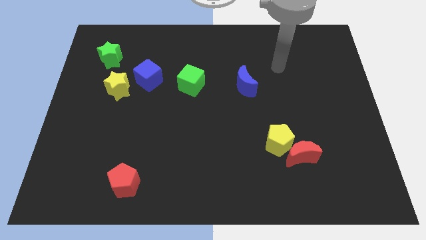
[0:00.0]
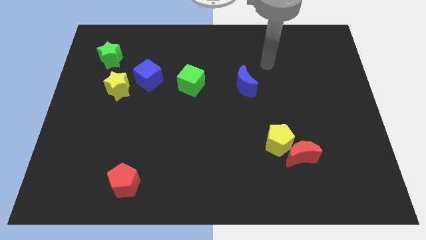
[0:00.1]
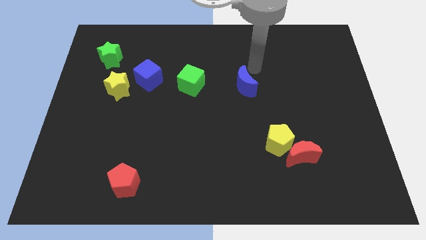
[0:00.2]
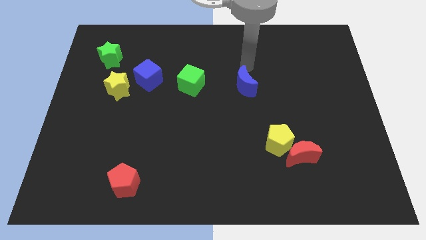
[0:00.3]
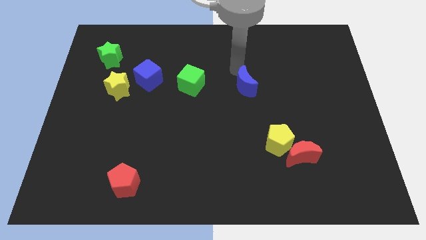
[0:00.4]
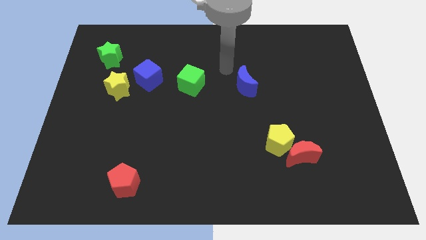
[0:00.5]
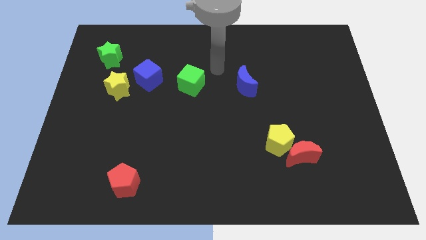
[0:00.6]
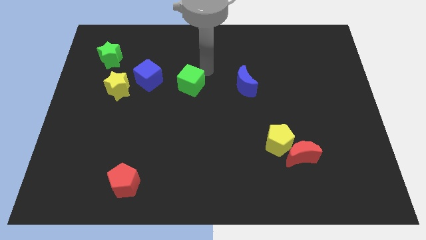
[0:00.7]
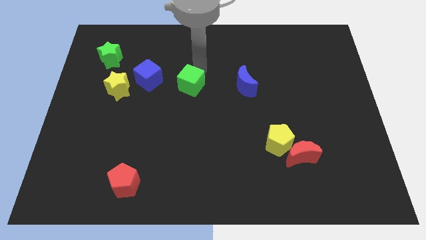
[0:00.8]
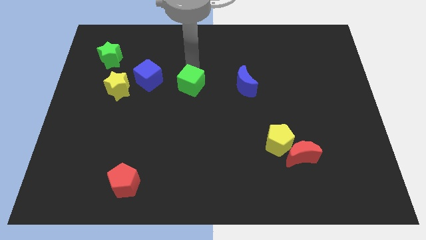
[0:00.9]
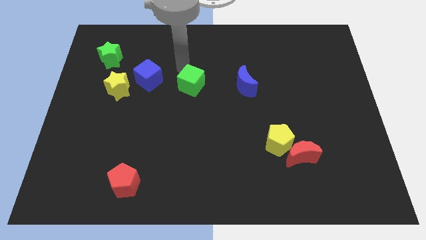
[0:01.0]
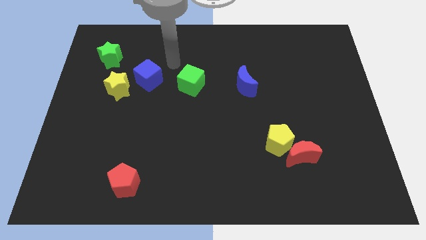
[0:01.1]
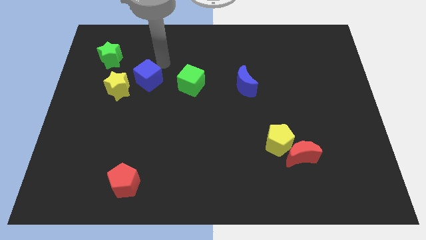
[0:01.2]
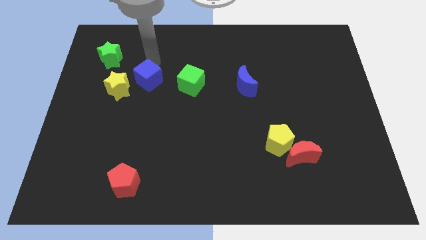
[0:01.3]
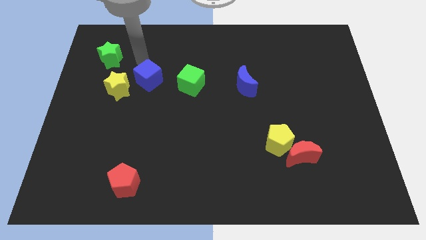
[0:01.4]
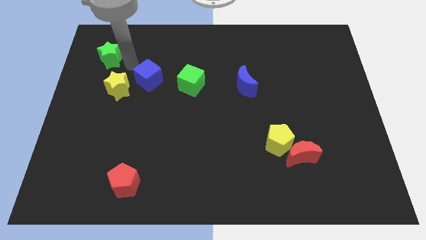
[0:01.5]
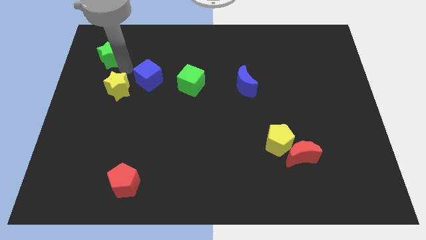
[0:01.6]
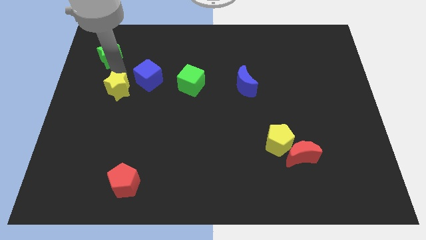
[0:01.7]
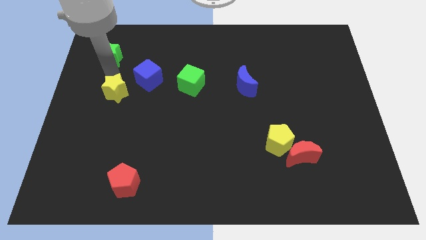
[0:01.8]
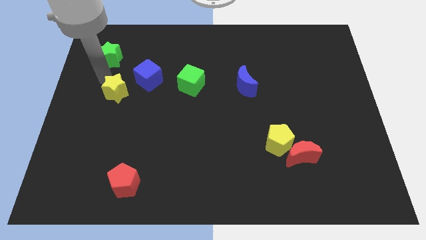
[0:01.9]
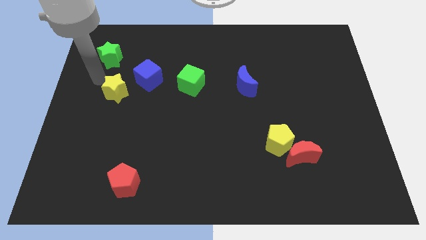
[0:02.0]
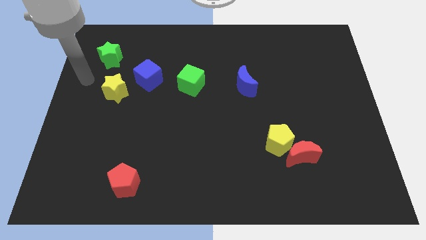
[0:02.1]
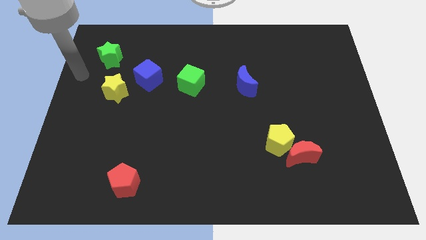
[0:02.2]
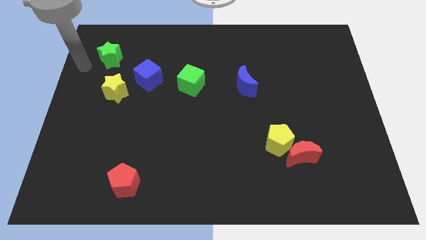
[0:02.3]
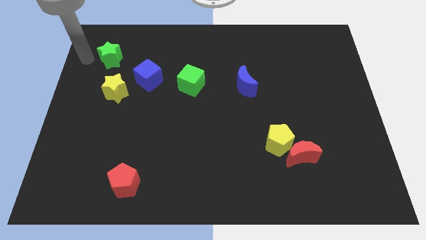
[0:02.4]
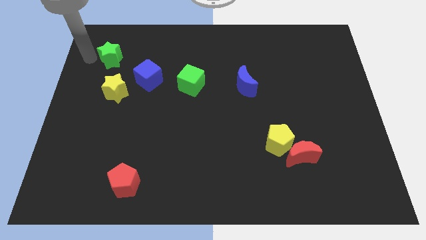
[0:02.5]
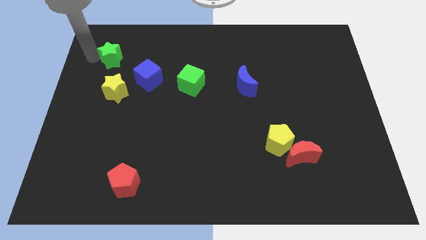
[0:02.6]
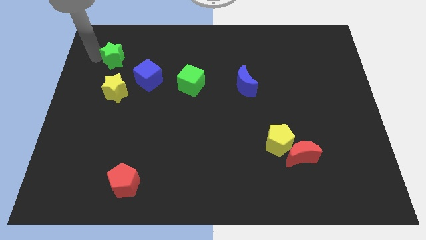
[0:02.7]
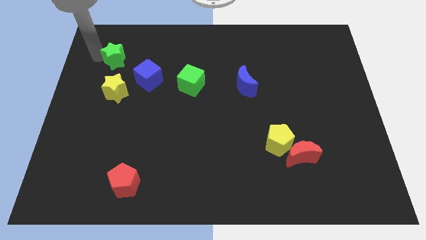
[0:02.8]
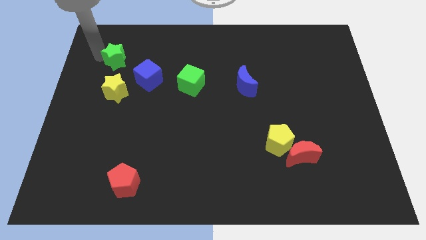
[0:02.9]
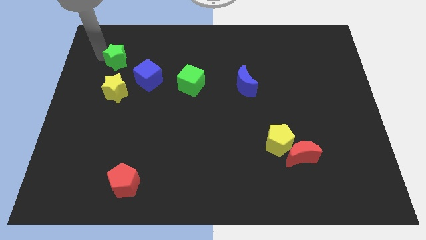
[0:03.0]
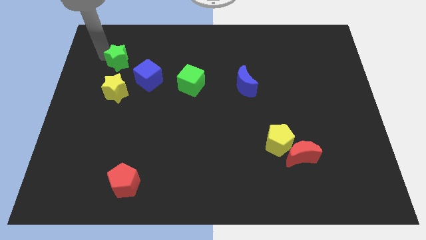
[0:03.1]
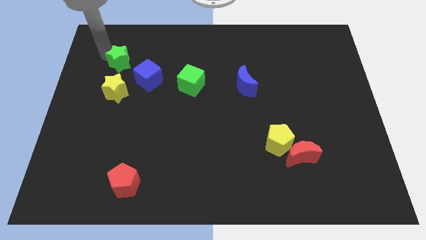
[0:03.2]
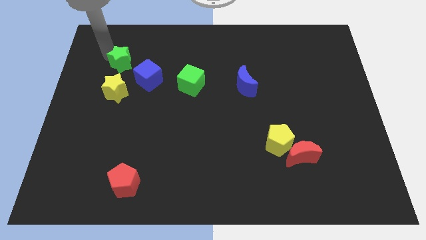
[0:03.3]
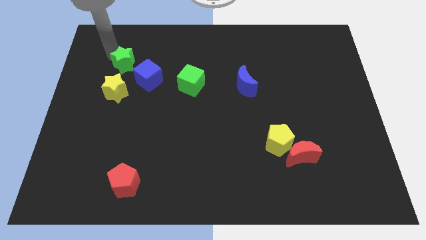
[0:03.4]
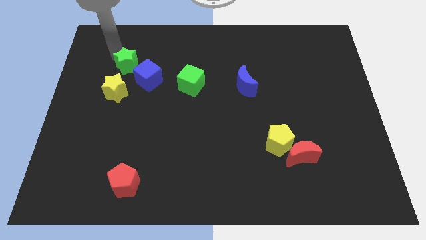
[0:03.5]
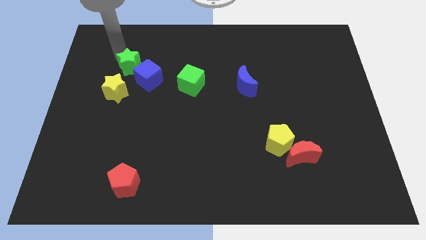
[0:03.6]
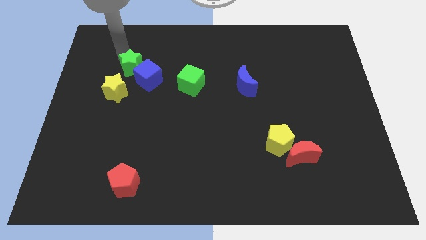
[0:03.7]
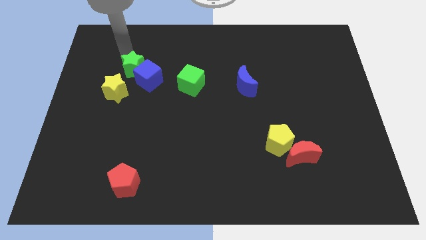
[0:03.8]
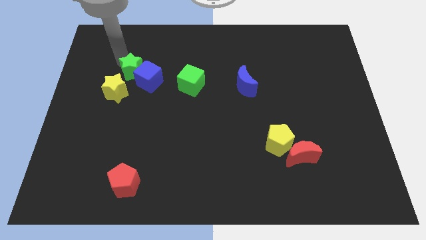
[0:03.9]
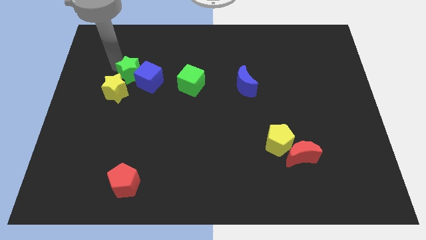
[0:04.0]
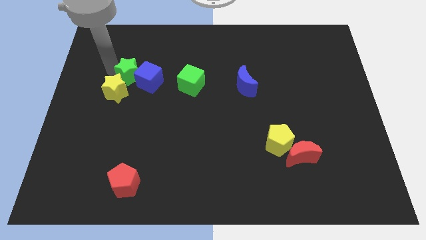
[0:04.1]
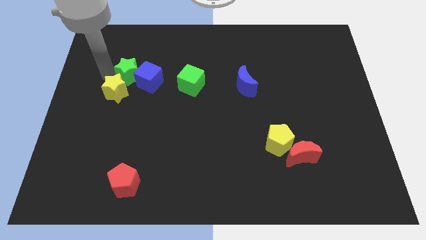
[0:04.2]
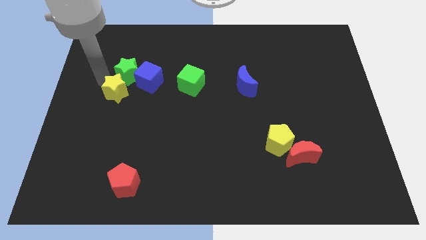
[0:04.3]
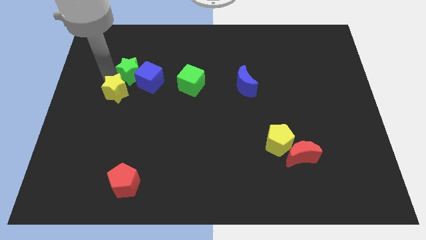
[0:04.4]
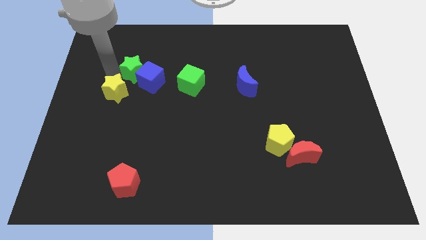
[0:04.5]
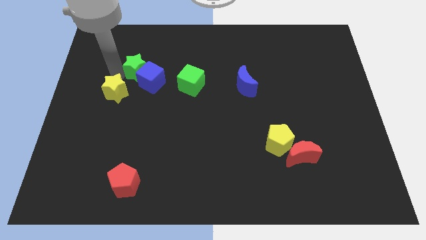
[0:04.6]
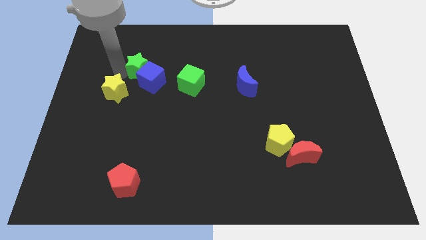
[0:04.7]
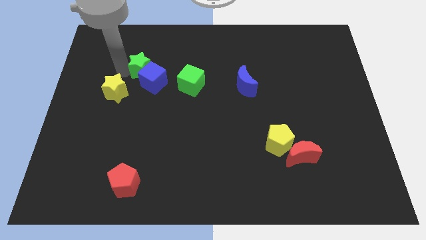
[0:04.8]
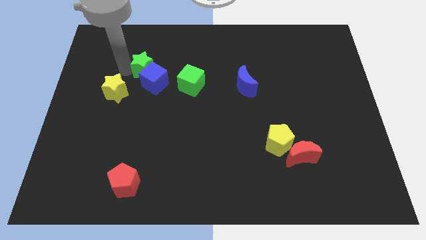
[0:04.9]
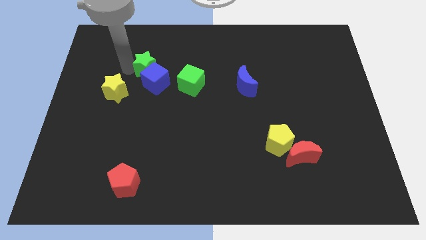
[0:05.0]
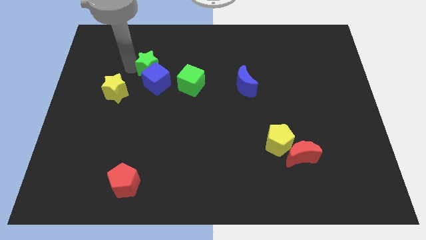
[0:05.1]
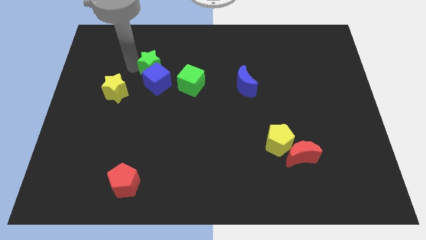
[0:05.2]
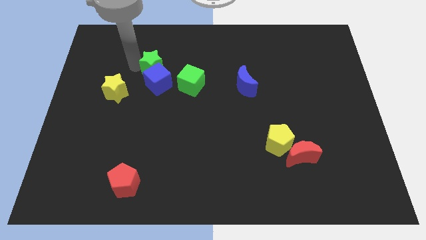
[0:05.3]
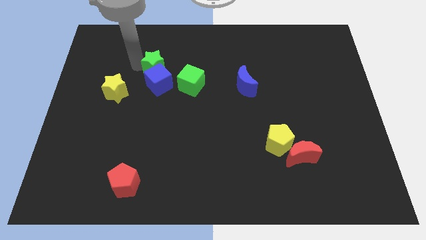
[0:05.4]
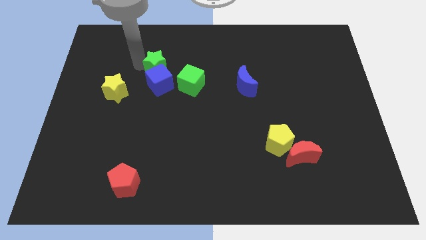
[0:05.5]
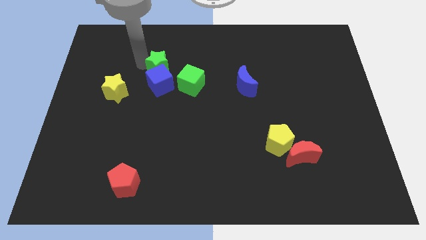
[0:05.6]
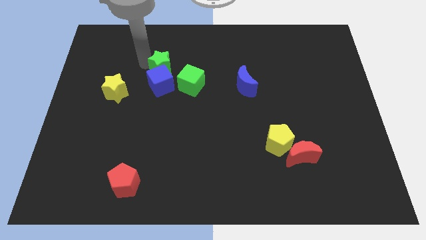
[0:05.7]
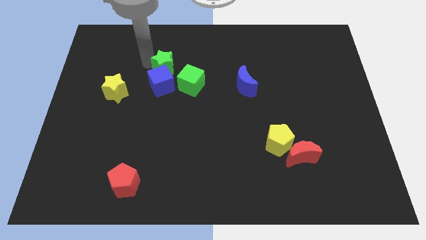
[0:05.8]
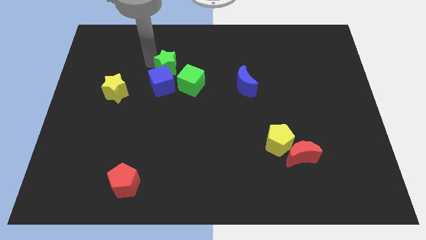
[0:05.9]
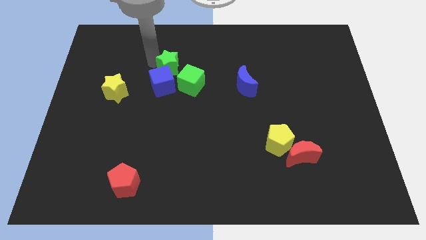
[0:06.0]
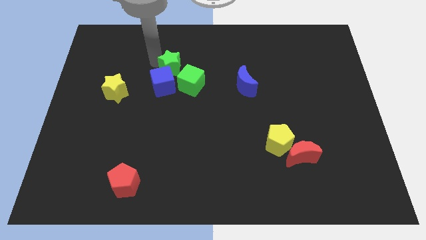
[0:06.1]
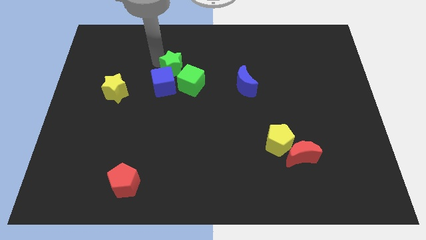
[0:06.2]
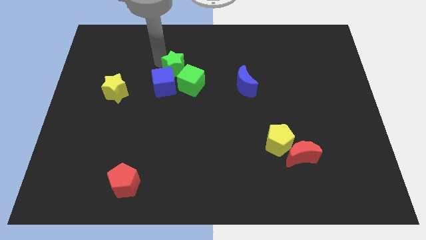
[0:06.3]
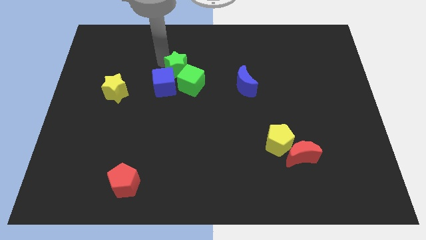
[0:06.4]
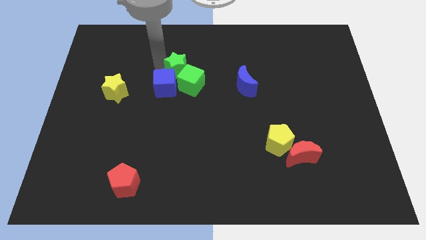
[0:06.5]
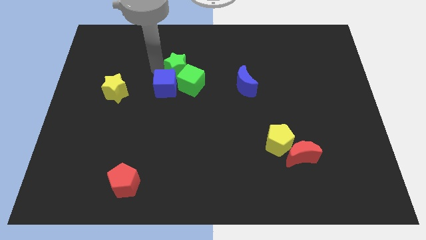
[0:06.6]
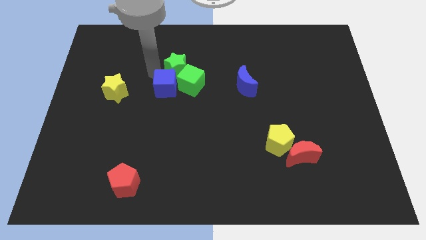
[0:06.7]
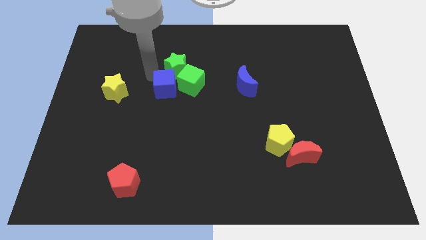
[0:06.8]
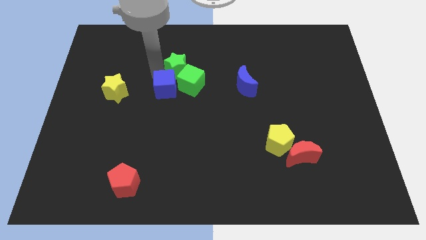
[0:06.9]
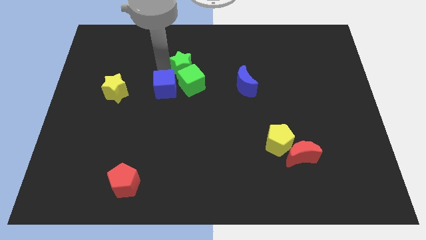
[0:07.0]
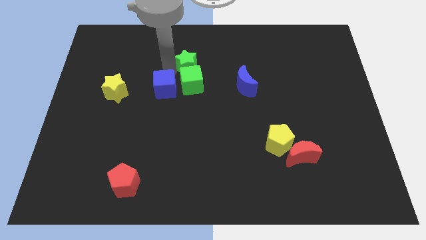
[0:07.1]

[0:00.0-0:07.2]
slide the green star right

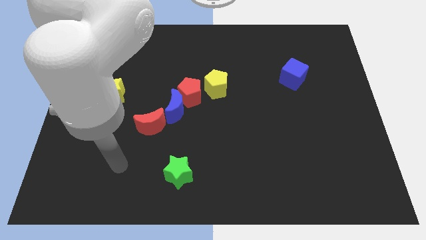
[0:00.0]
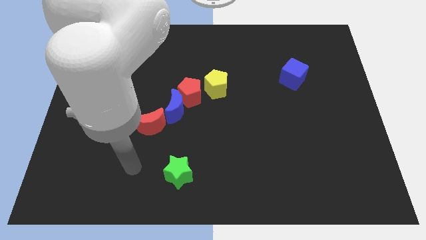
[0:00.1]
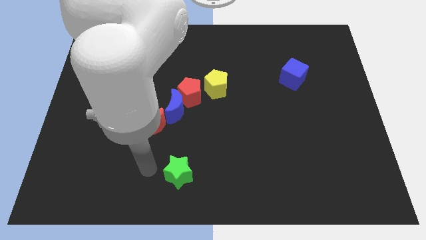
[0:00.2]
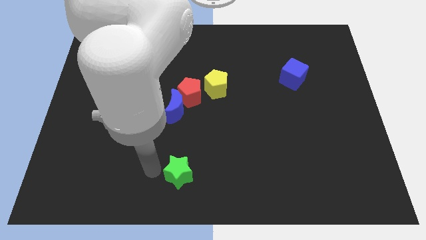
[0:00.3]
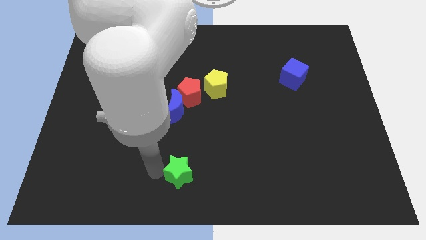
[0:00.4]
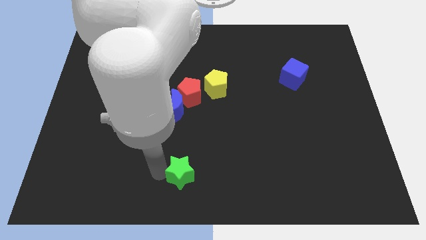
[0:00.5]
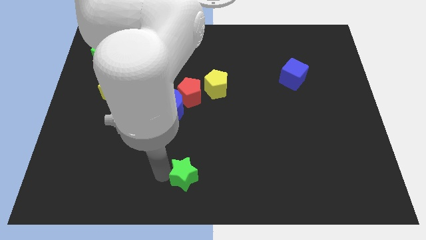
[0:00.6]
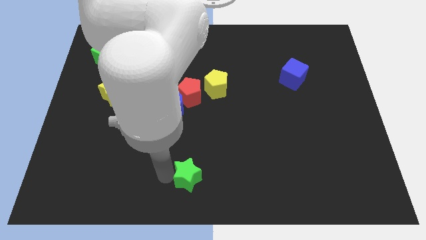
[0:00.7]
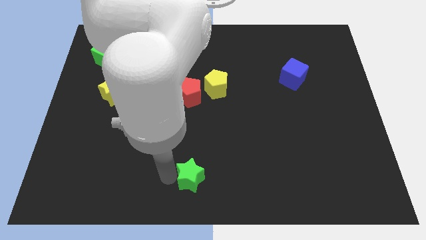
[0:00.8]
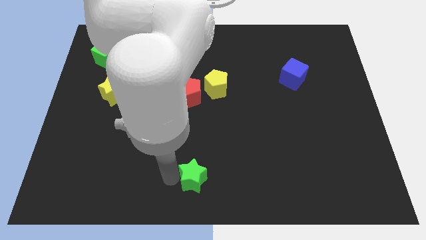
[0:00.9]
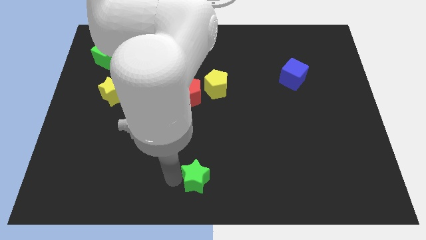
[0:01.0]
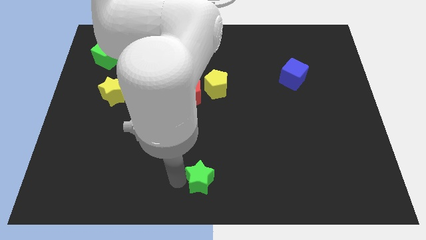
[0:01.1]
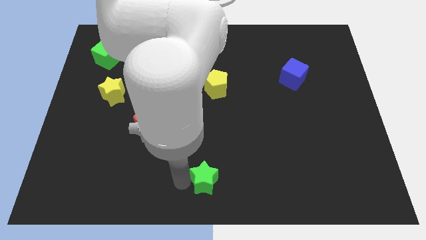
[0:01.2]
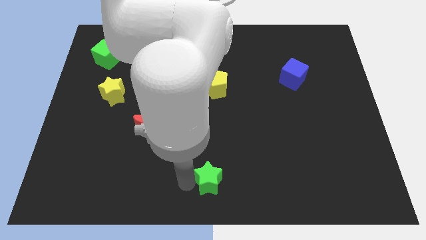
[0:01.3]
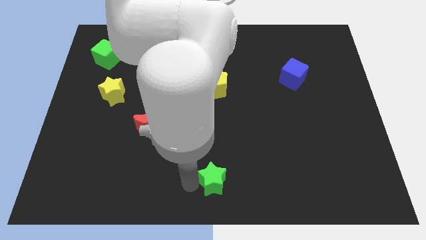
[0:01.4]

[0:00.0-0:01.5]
move the green star to the right a little

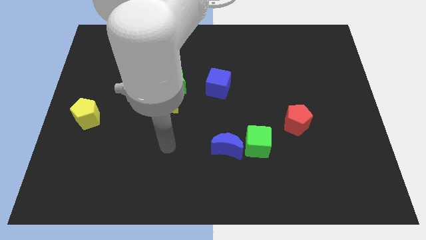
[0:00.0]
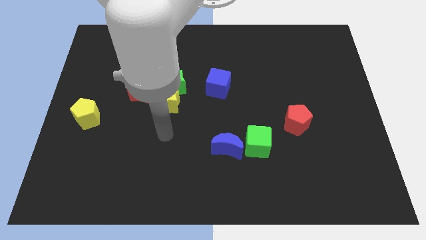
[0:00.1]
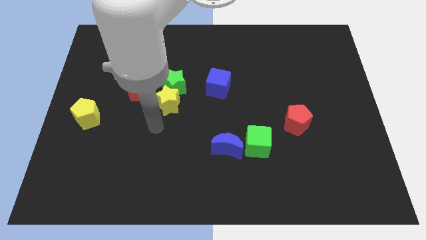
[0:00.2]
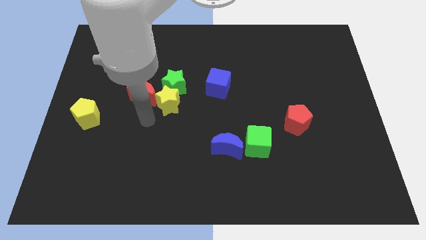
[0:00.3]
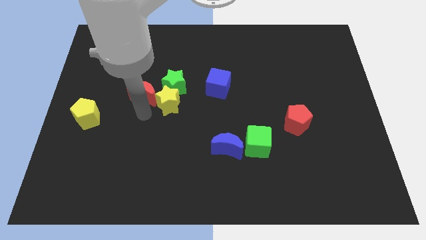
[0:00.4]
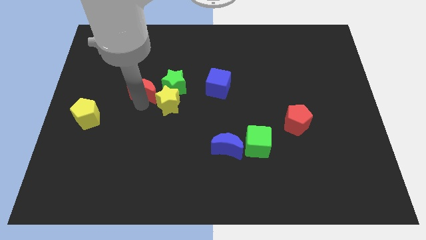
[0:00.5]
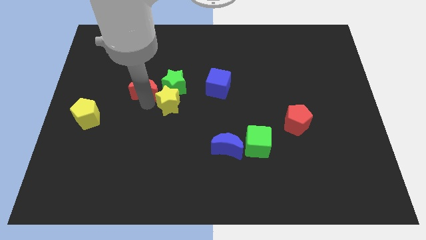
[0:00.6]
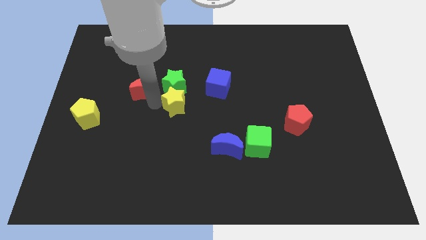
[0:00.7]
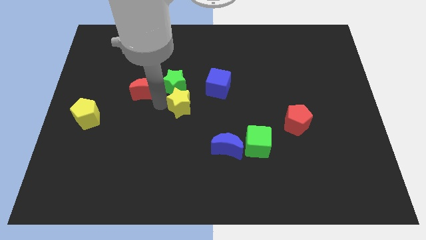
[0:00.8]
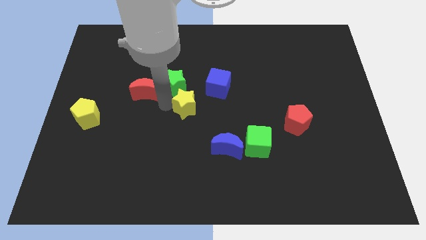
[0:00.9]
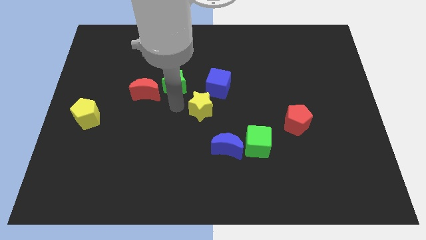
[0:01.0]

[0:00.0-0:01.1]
move the yellow star a little bit to the right
